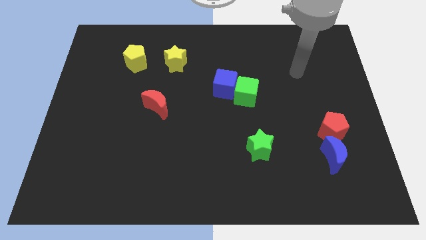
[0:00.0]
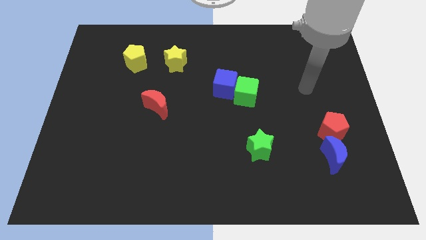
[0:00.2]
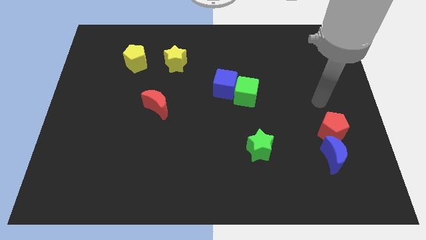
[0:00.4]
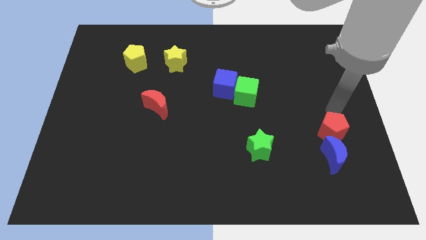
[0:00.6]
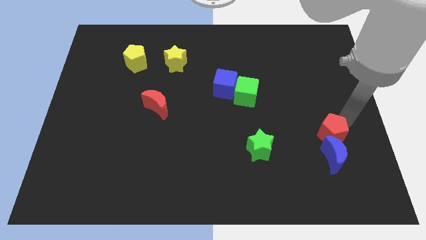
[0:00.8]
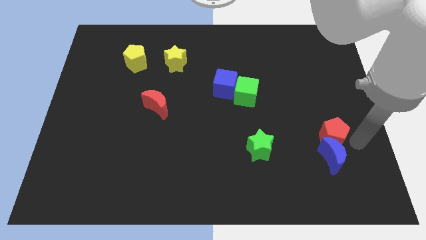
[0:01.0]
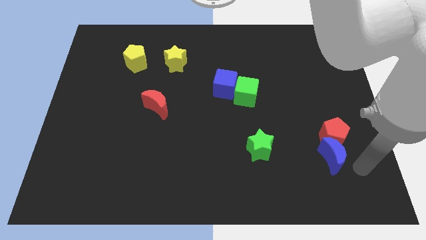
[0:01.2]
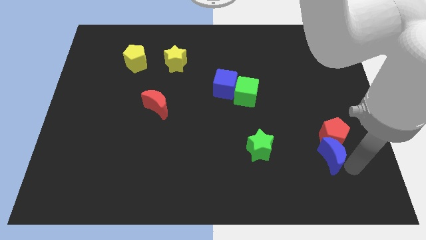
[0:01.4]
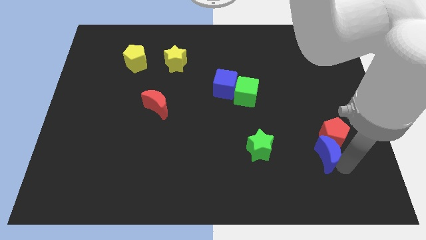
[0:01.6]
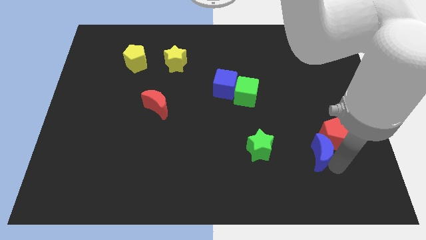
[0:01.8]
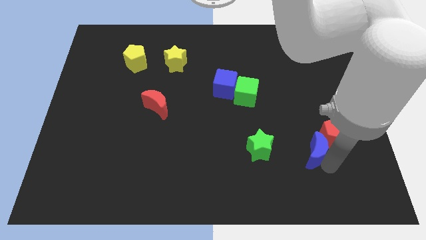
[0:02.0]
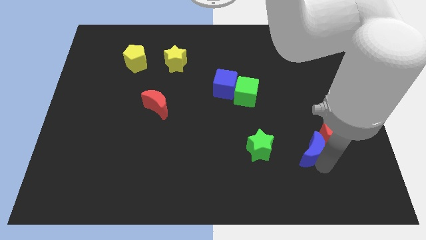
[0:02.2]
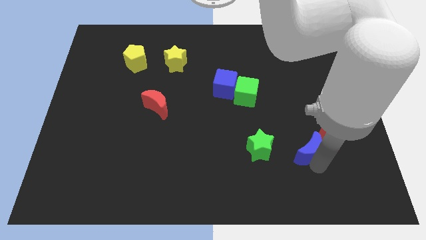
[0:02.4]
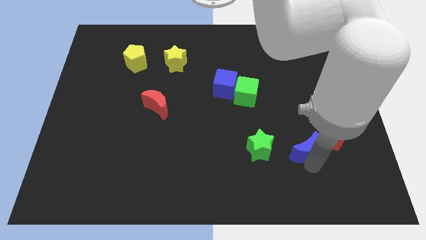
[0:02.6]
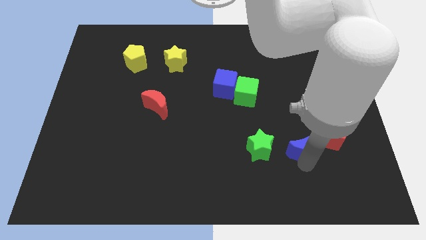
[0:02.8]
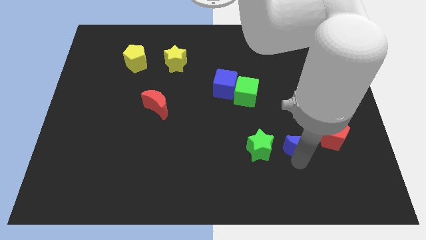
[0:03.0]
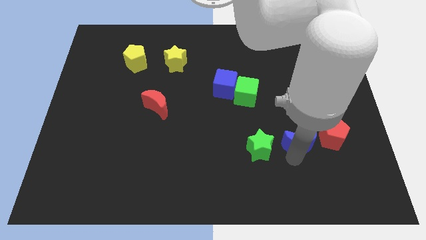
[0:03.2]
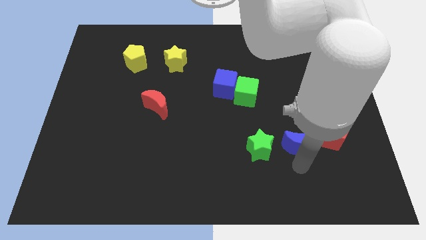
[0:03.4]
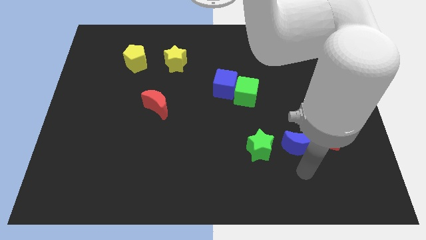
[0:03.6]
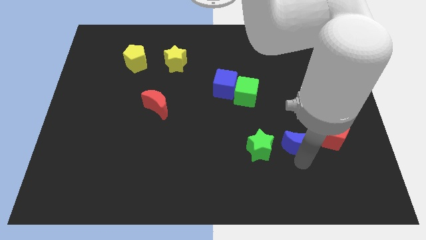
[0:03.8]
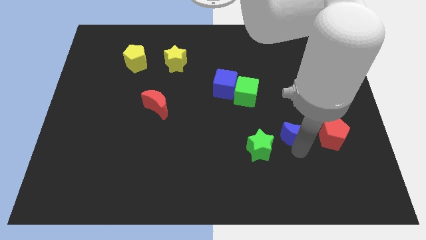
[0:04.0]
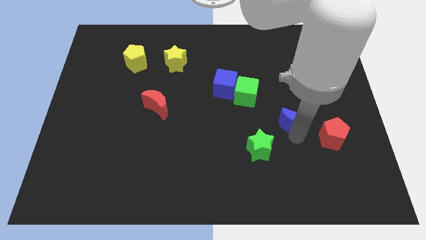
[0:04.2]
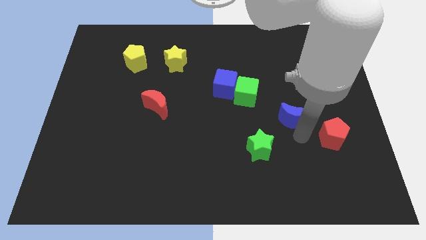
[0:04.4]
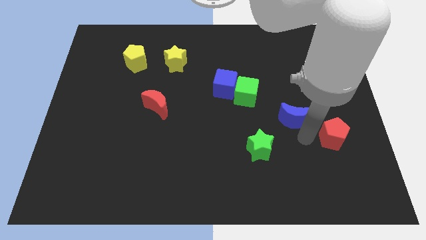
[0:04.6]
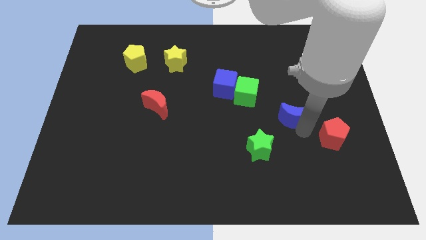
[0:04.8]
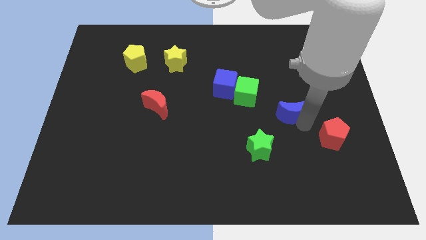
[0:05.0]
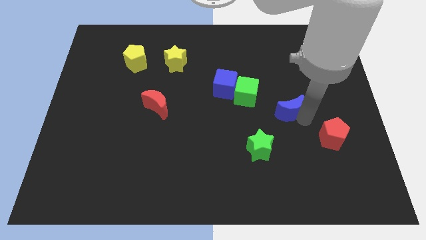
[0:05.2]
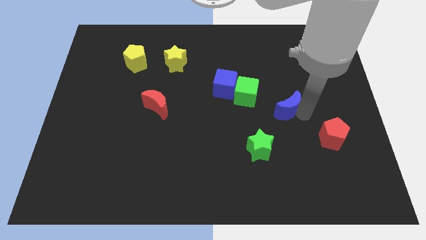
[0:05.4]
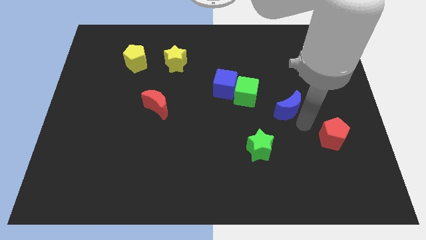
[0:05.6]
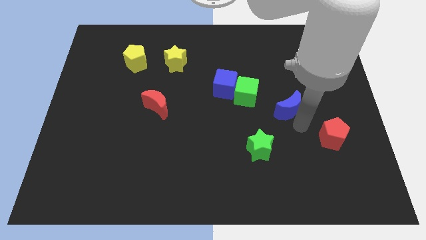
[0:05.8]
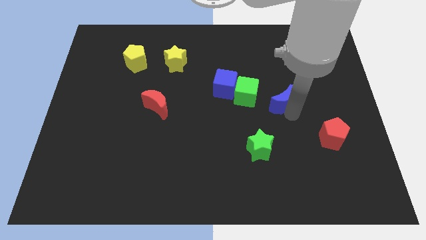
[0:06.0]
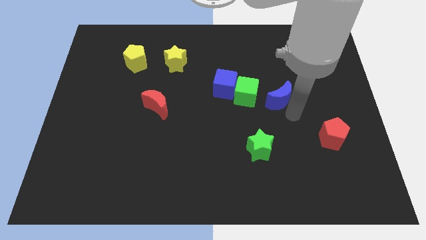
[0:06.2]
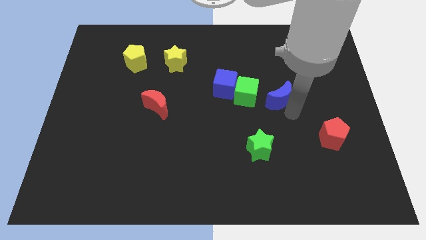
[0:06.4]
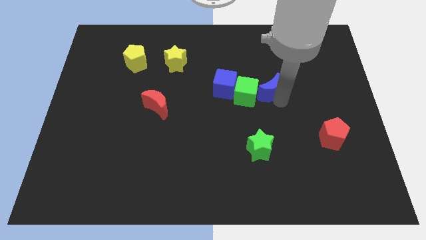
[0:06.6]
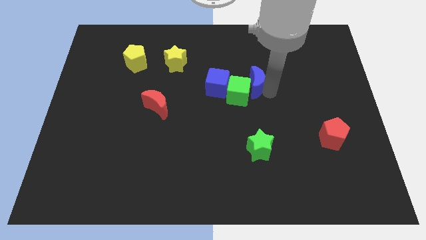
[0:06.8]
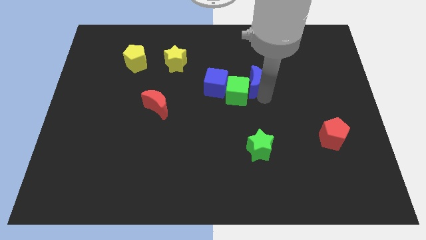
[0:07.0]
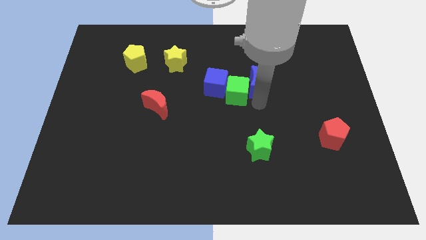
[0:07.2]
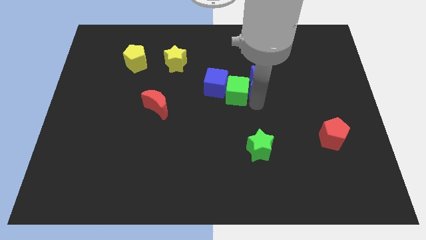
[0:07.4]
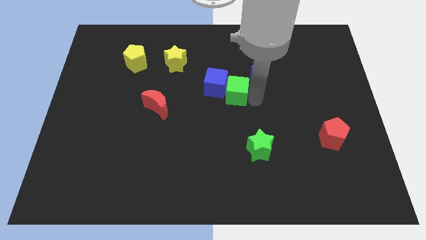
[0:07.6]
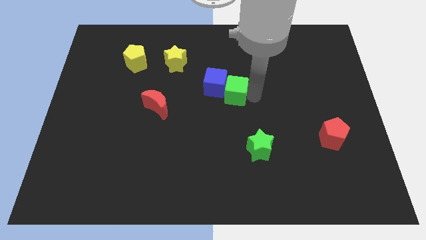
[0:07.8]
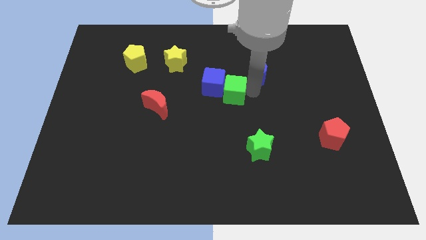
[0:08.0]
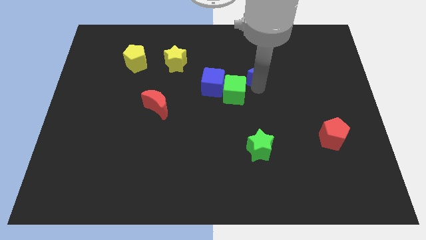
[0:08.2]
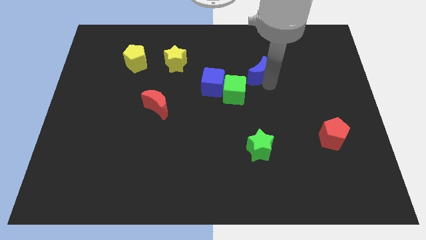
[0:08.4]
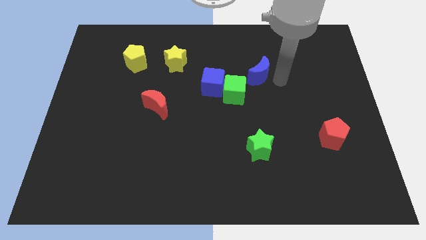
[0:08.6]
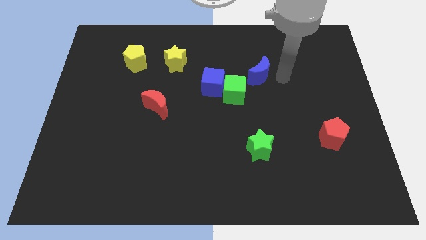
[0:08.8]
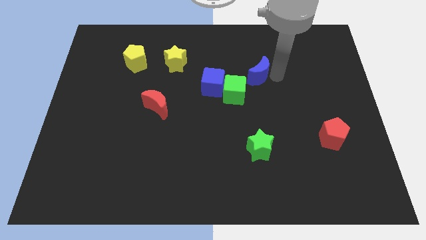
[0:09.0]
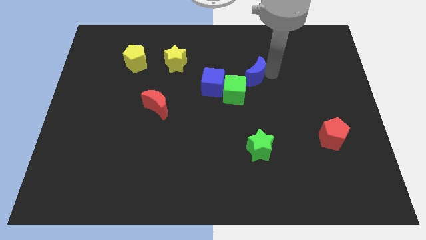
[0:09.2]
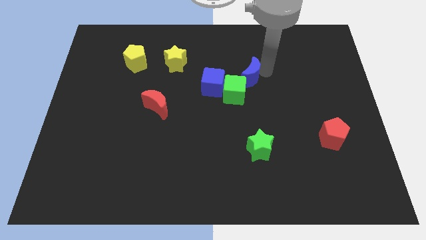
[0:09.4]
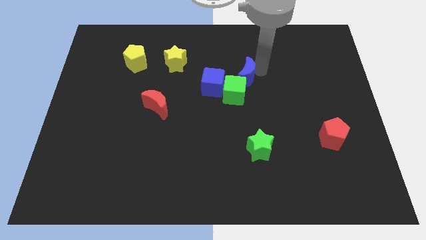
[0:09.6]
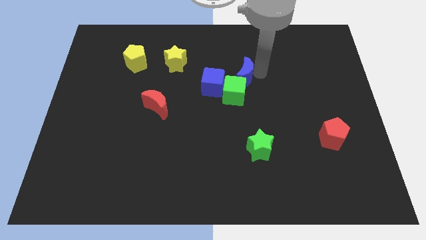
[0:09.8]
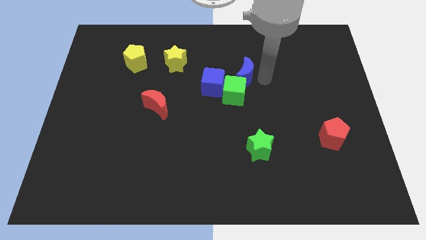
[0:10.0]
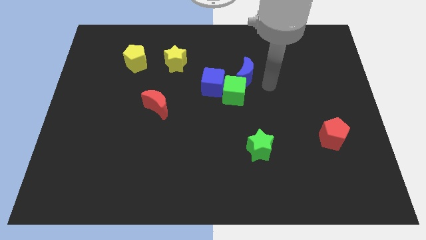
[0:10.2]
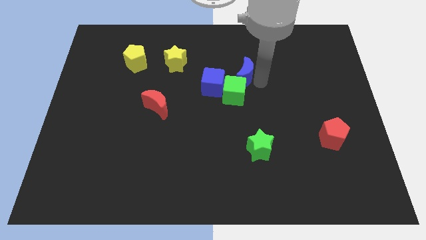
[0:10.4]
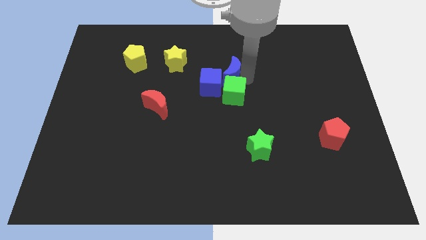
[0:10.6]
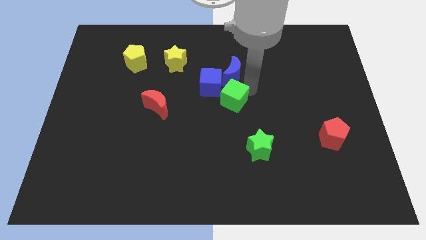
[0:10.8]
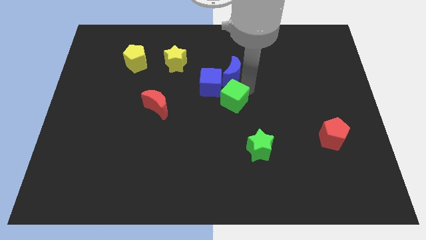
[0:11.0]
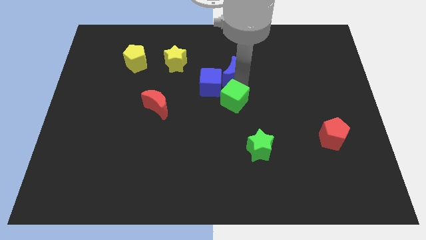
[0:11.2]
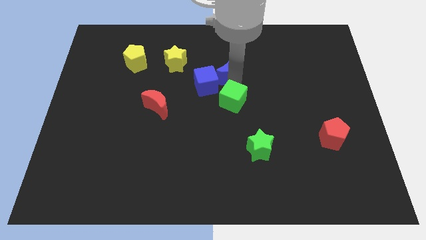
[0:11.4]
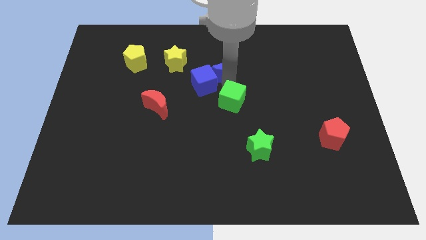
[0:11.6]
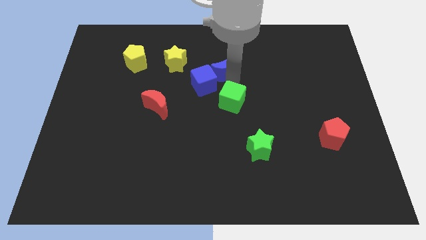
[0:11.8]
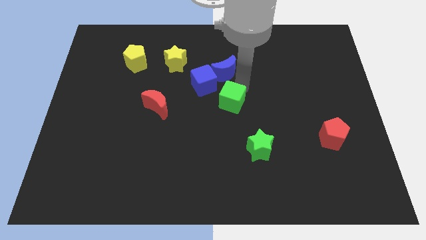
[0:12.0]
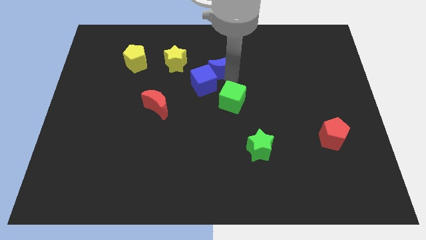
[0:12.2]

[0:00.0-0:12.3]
put the blue moon to the top side of the blue cube
